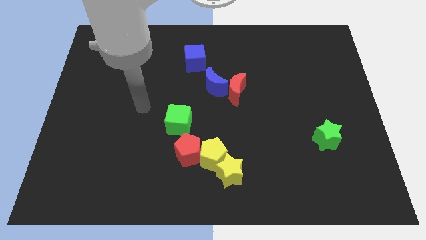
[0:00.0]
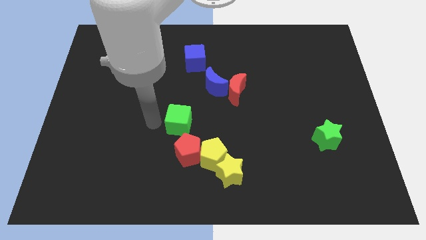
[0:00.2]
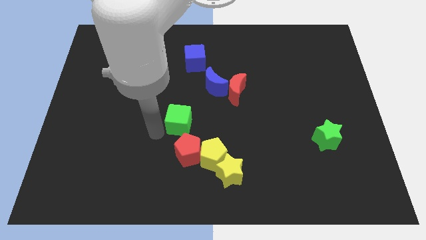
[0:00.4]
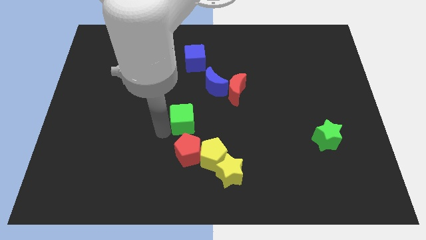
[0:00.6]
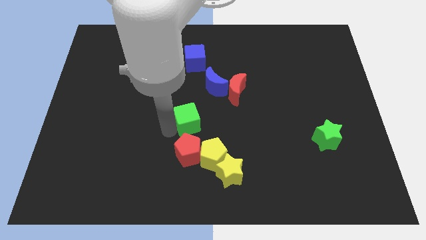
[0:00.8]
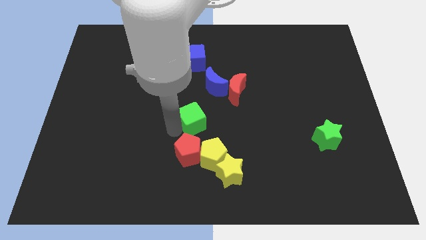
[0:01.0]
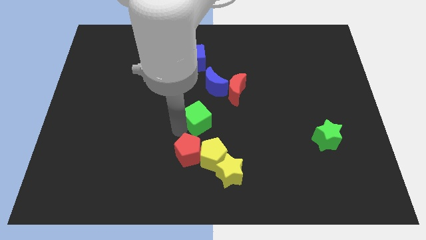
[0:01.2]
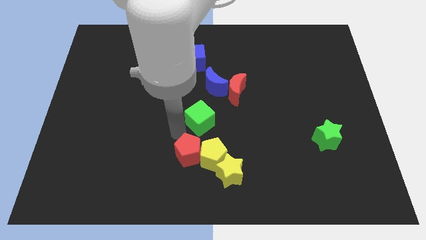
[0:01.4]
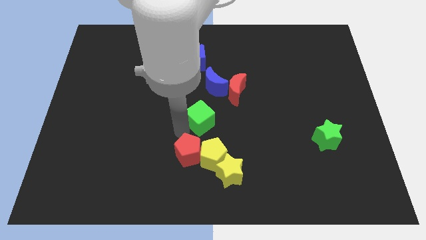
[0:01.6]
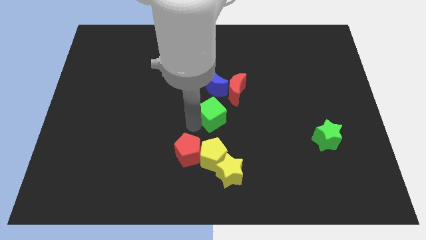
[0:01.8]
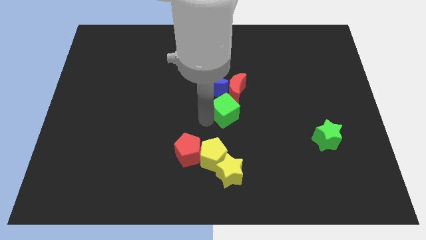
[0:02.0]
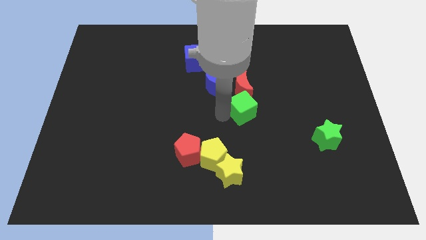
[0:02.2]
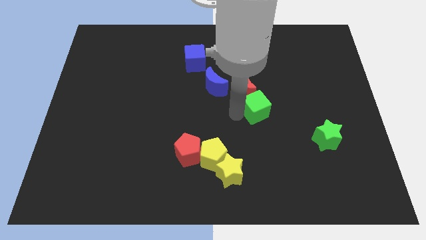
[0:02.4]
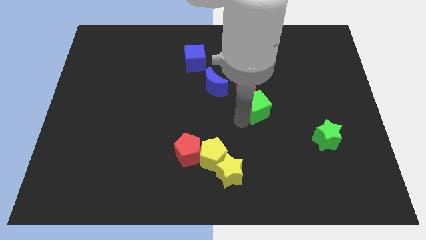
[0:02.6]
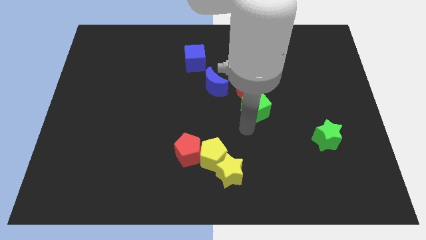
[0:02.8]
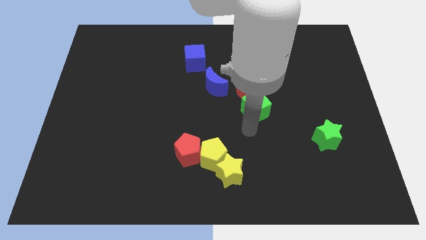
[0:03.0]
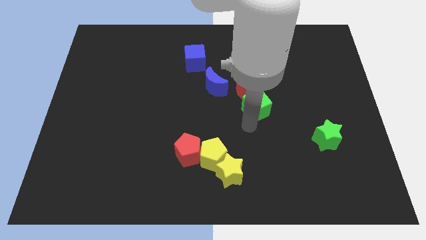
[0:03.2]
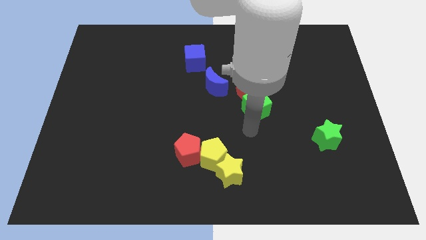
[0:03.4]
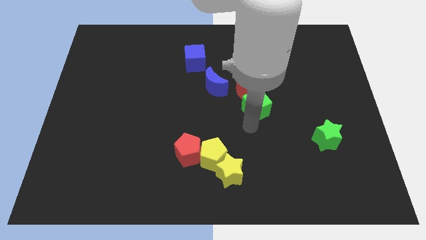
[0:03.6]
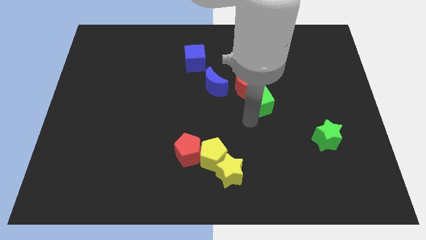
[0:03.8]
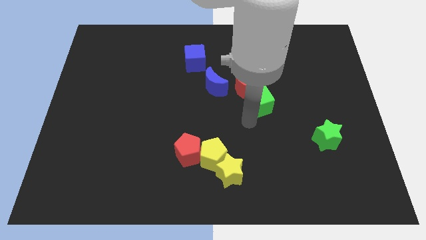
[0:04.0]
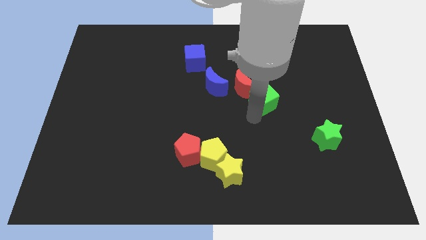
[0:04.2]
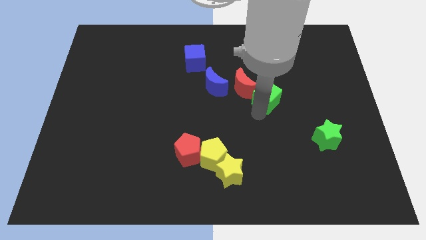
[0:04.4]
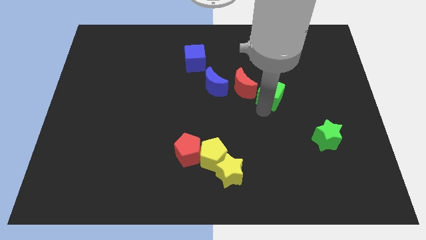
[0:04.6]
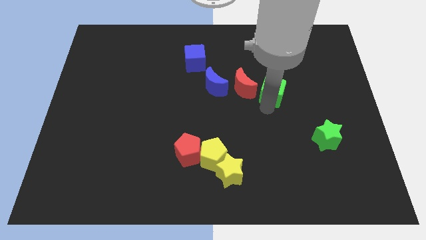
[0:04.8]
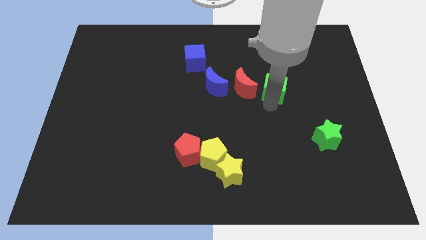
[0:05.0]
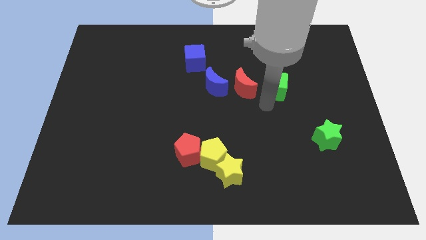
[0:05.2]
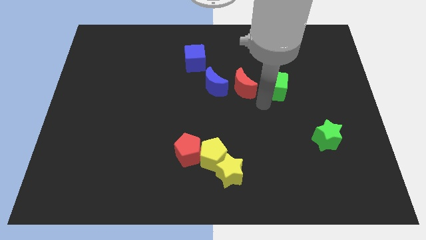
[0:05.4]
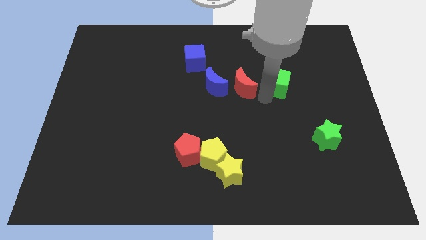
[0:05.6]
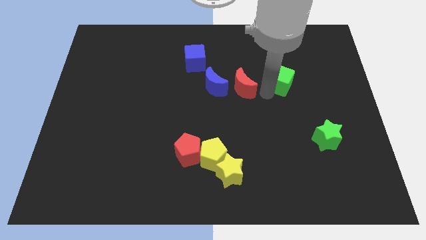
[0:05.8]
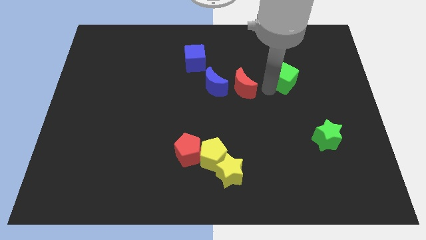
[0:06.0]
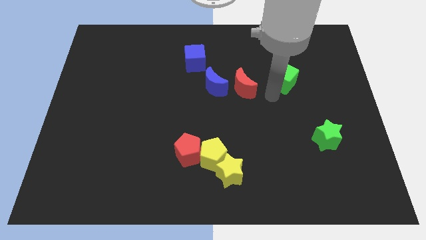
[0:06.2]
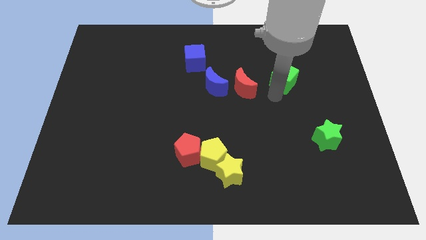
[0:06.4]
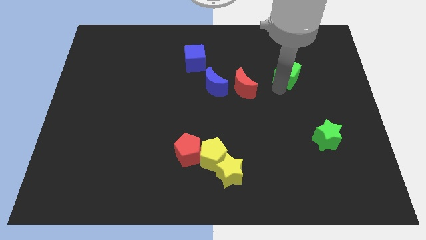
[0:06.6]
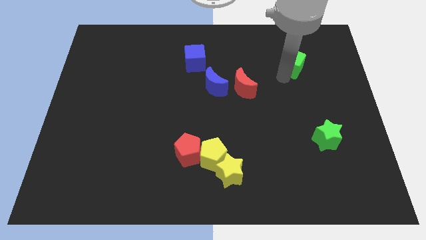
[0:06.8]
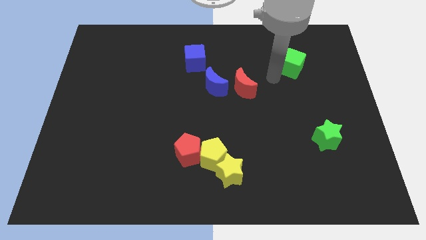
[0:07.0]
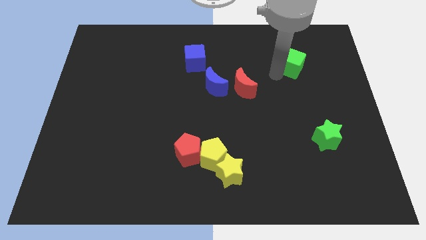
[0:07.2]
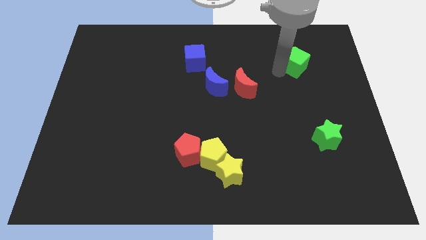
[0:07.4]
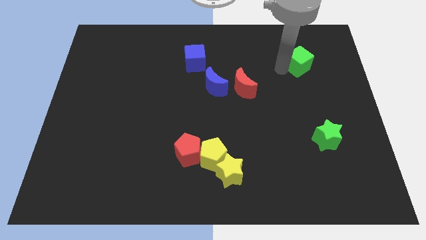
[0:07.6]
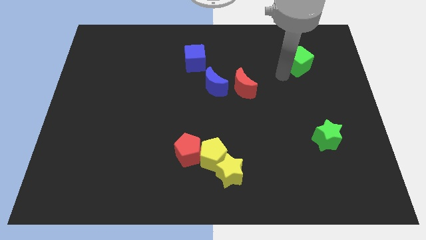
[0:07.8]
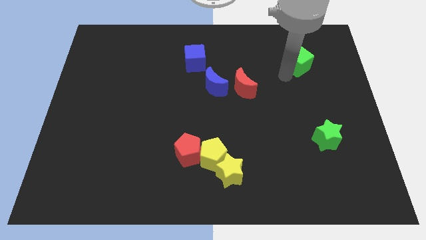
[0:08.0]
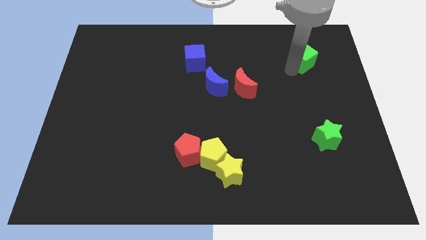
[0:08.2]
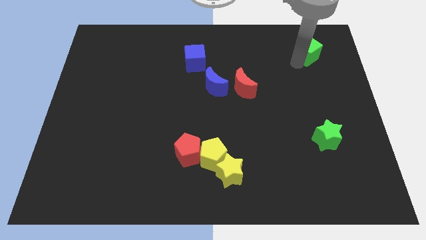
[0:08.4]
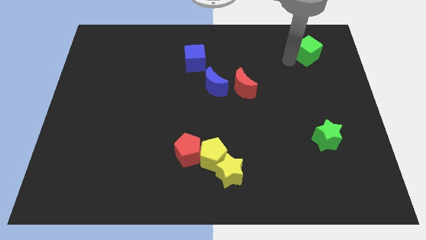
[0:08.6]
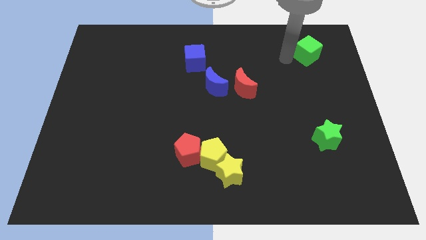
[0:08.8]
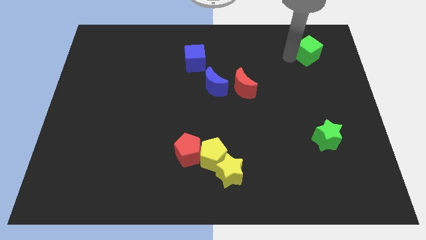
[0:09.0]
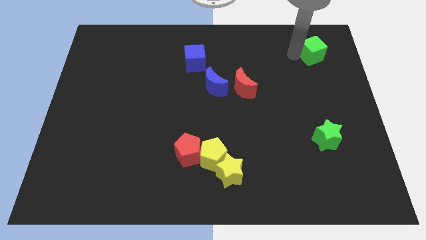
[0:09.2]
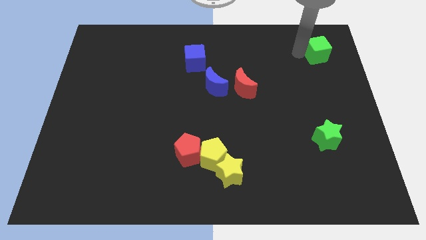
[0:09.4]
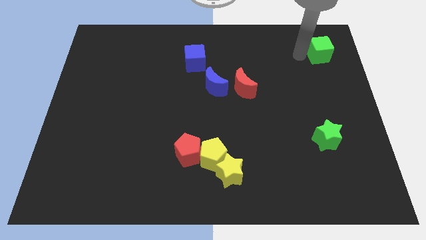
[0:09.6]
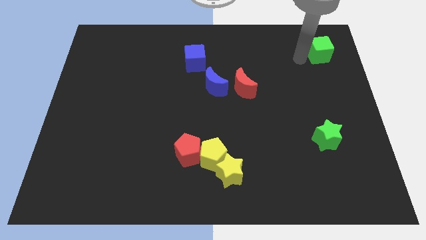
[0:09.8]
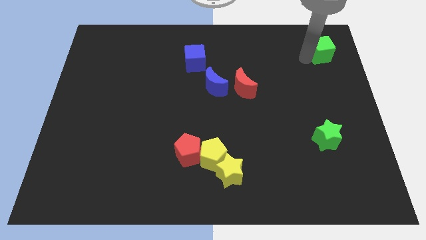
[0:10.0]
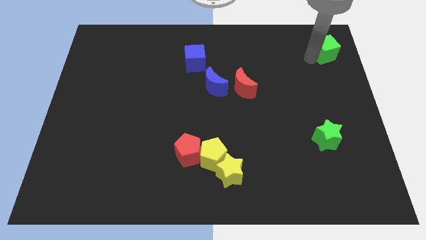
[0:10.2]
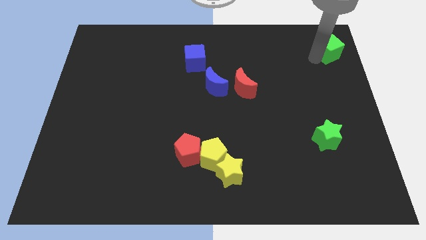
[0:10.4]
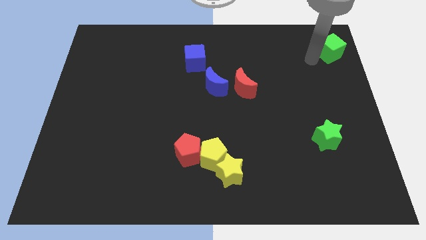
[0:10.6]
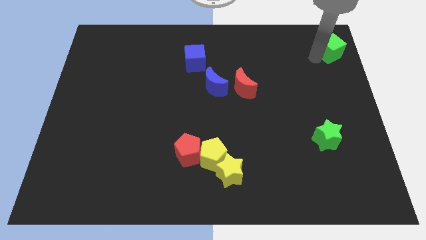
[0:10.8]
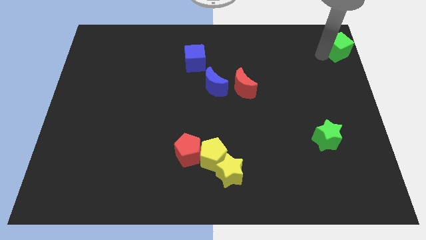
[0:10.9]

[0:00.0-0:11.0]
move the green cube to the top right corner

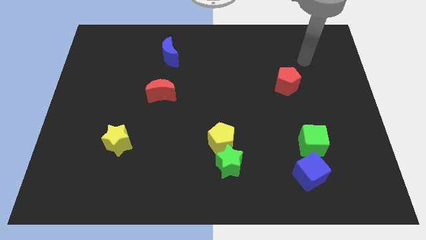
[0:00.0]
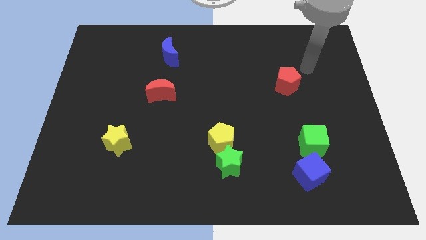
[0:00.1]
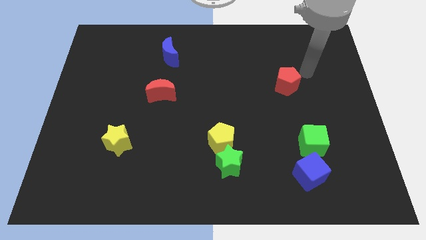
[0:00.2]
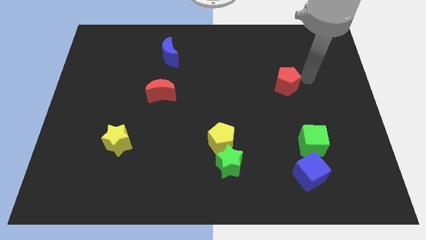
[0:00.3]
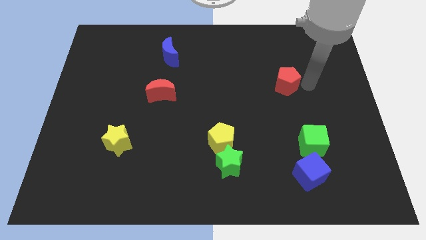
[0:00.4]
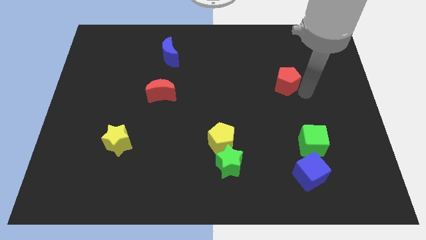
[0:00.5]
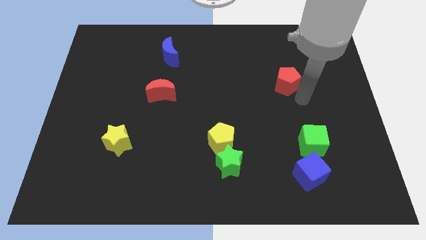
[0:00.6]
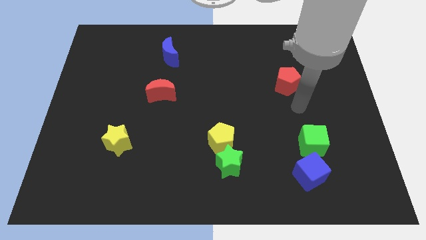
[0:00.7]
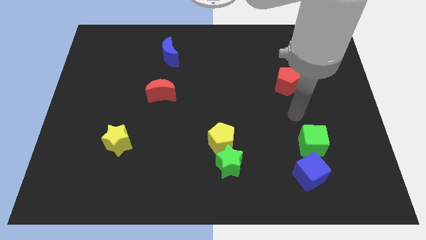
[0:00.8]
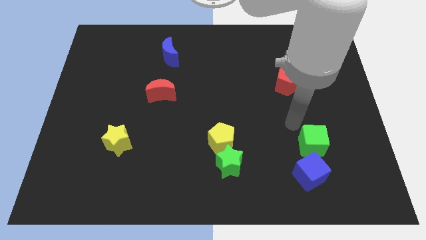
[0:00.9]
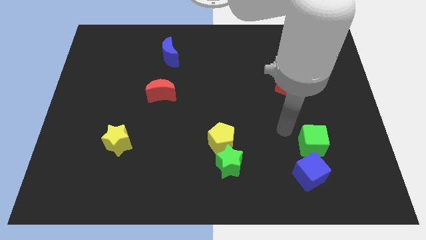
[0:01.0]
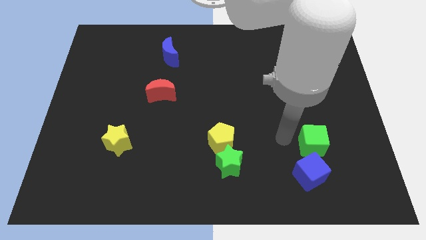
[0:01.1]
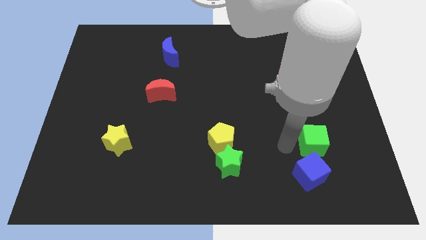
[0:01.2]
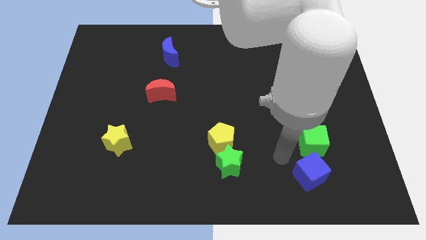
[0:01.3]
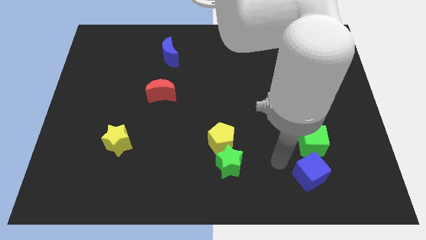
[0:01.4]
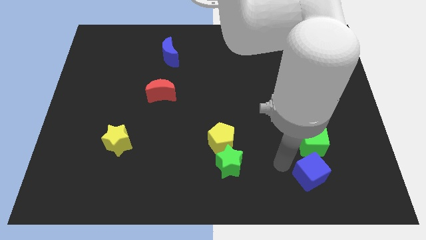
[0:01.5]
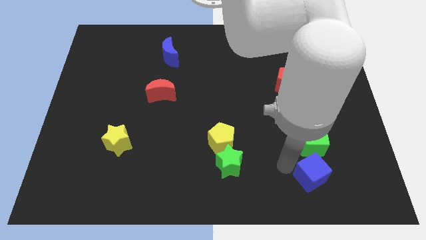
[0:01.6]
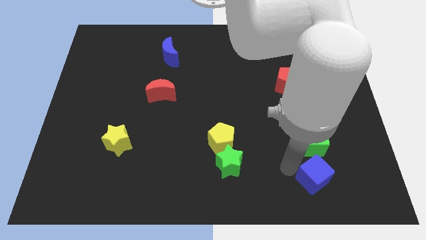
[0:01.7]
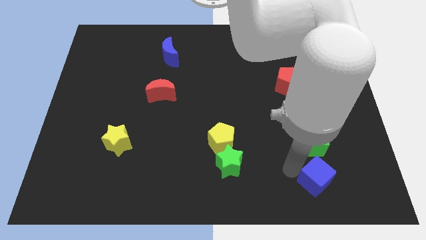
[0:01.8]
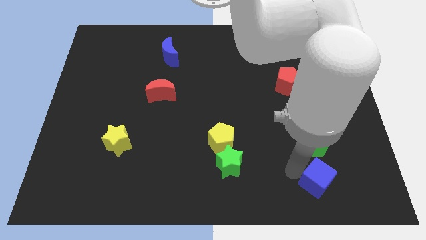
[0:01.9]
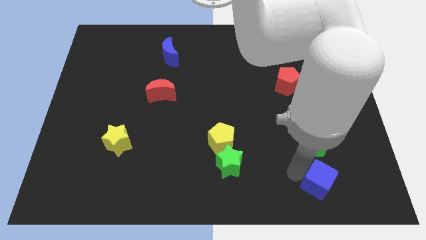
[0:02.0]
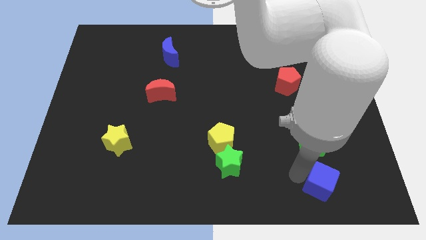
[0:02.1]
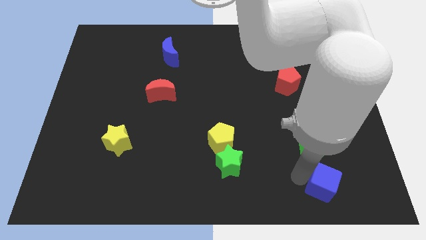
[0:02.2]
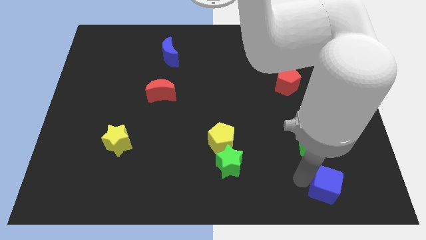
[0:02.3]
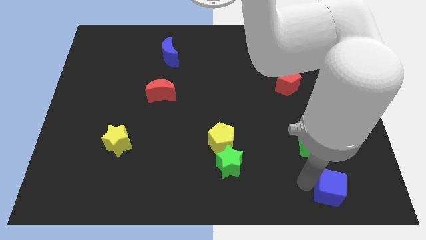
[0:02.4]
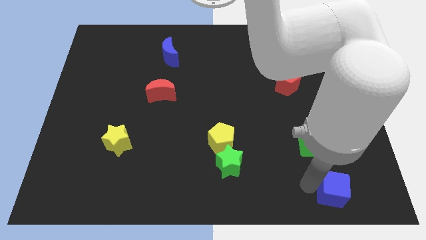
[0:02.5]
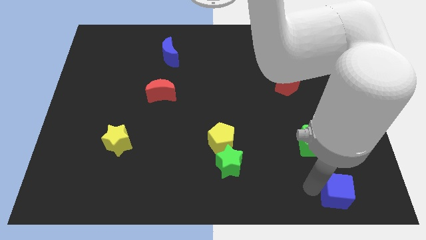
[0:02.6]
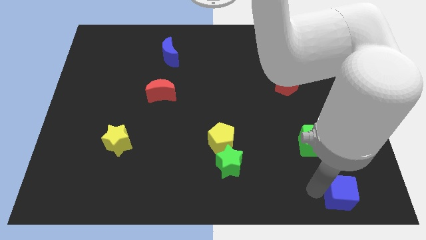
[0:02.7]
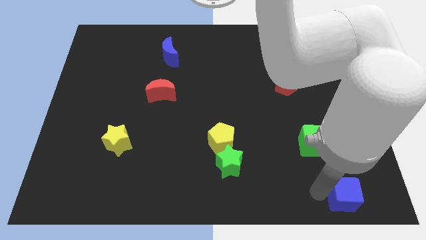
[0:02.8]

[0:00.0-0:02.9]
slide the blue cube to the bottom right corner
